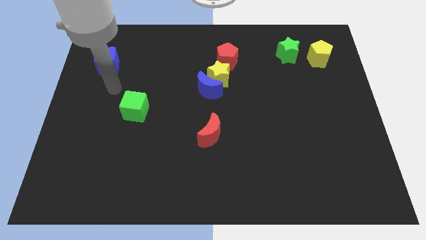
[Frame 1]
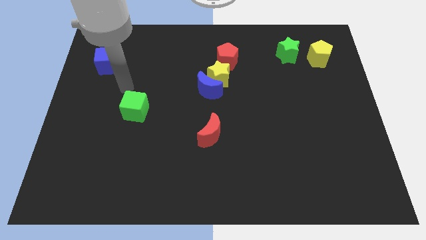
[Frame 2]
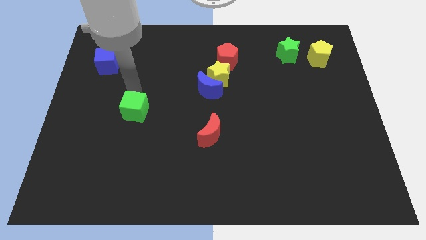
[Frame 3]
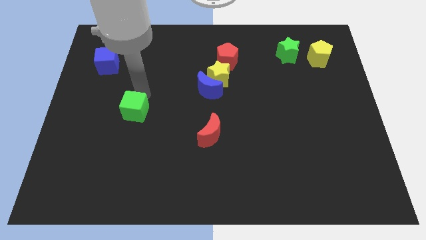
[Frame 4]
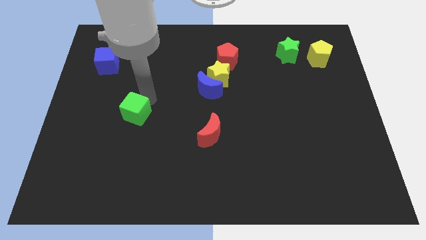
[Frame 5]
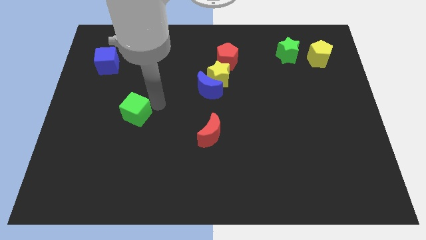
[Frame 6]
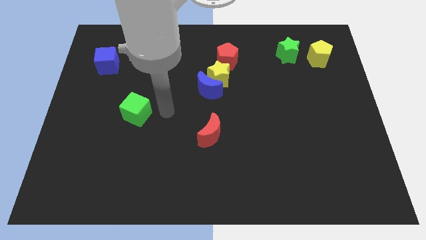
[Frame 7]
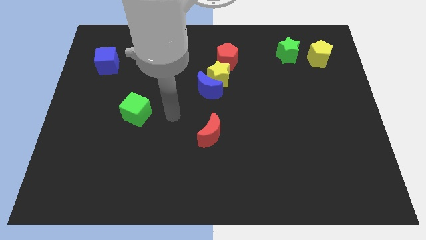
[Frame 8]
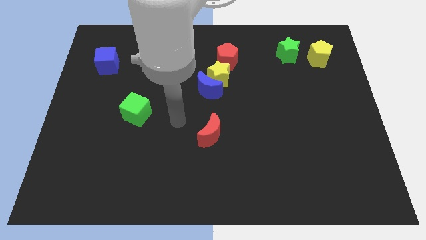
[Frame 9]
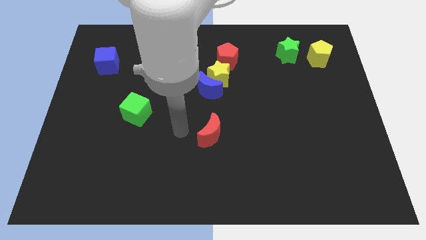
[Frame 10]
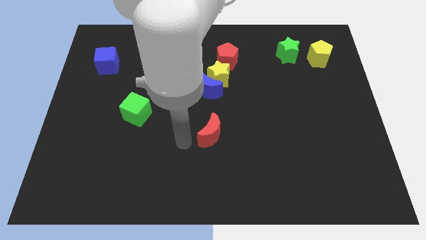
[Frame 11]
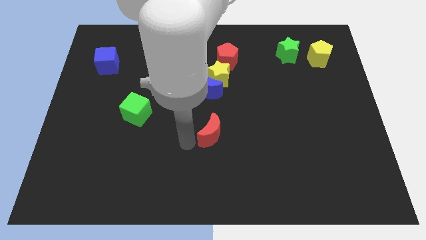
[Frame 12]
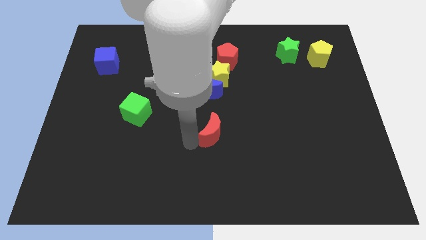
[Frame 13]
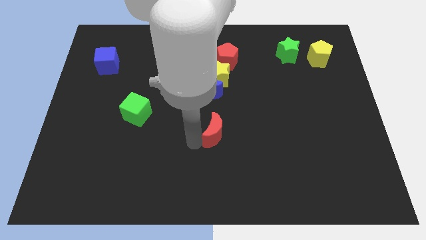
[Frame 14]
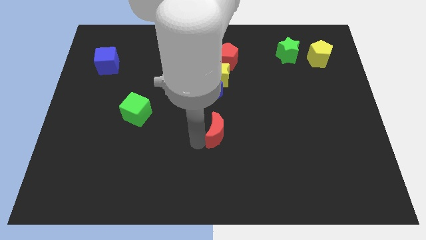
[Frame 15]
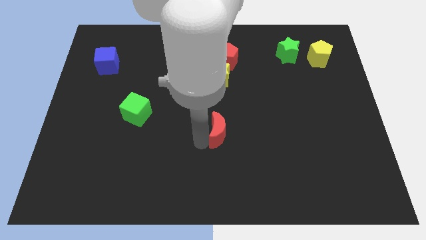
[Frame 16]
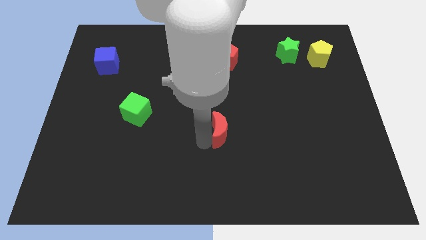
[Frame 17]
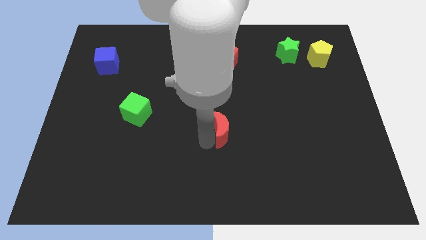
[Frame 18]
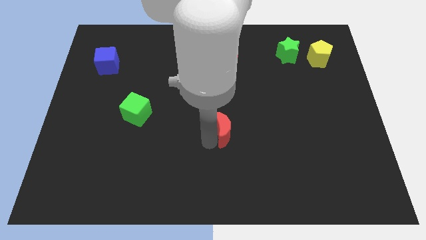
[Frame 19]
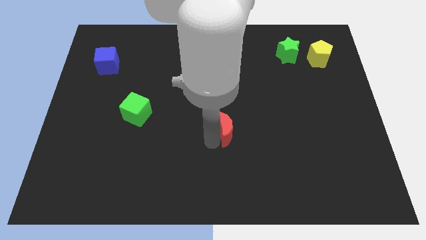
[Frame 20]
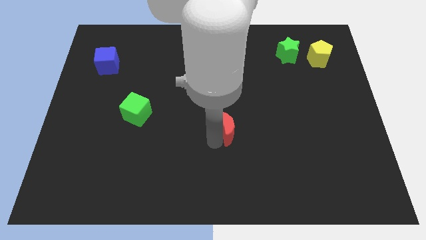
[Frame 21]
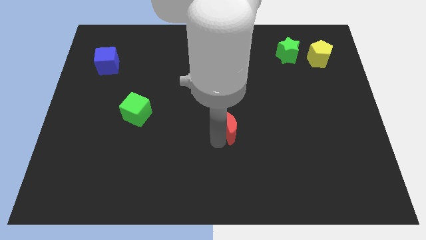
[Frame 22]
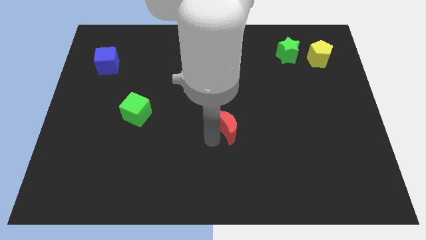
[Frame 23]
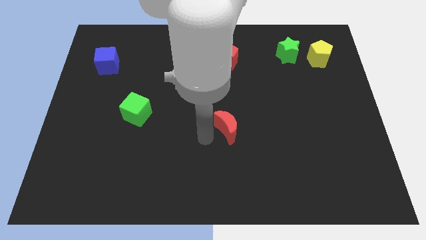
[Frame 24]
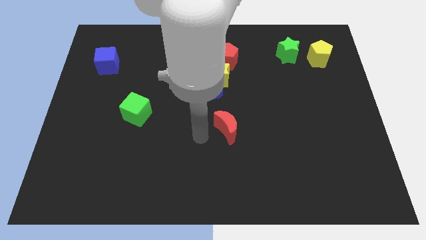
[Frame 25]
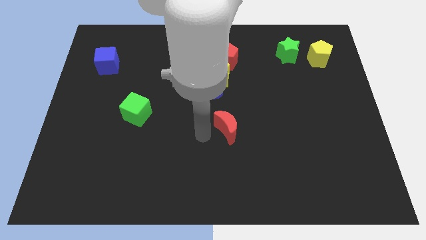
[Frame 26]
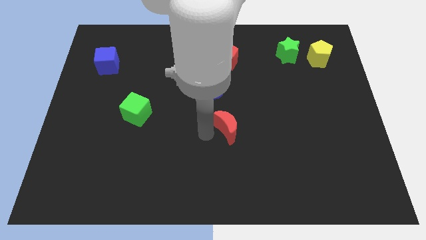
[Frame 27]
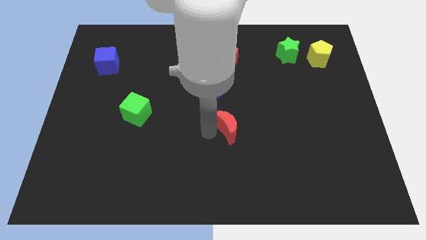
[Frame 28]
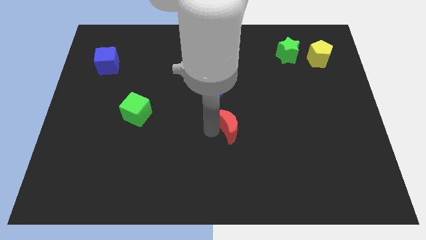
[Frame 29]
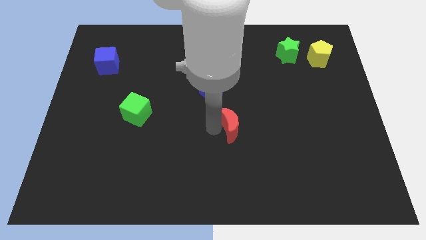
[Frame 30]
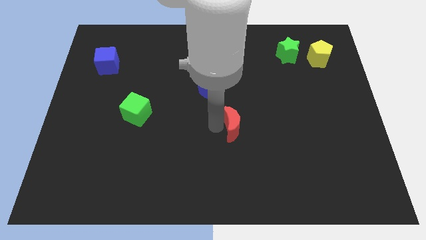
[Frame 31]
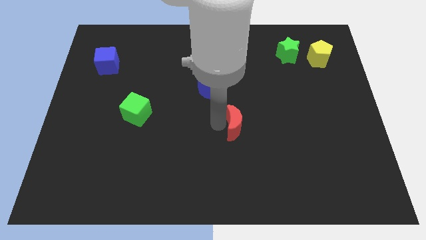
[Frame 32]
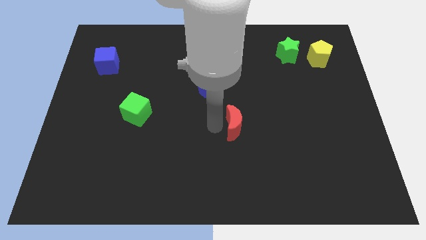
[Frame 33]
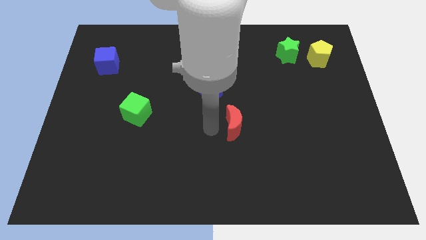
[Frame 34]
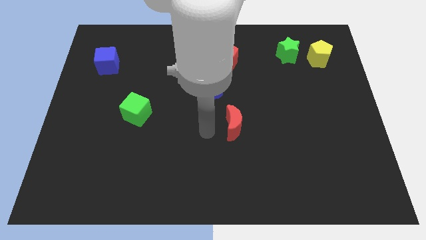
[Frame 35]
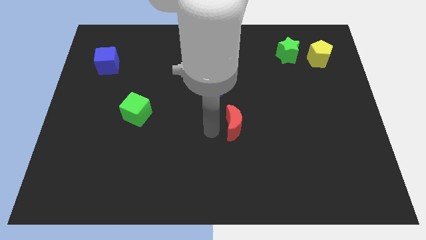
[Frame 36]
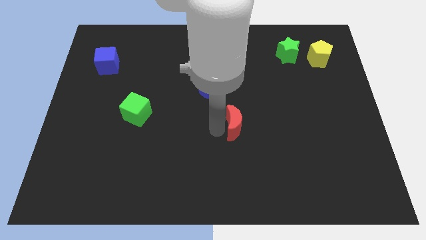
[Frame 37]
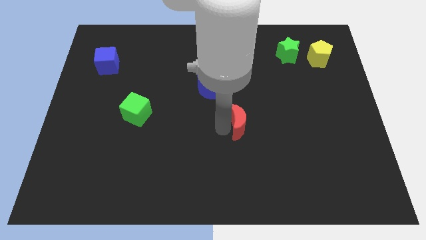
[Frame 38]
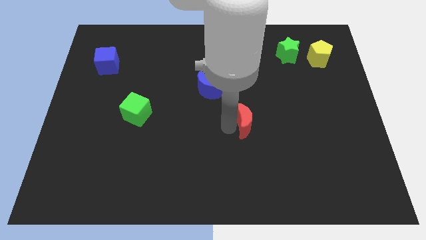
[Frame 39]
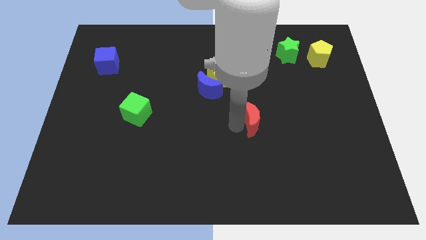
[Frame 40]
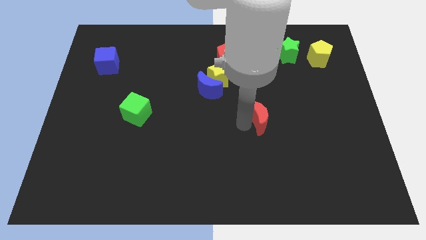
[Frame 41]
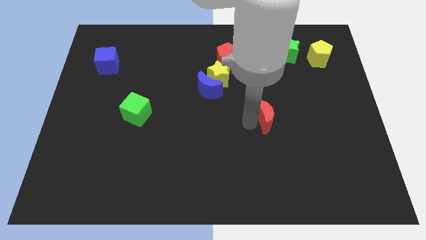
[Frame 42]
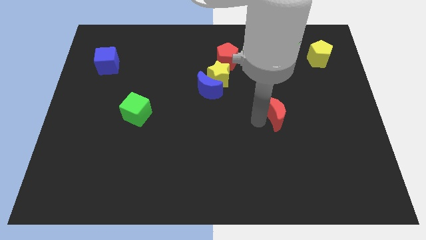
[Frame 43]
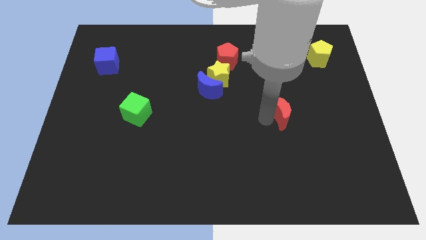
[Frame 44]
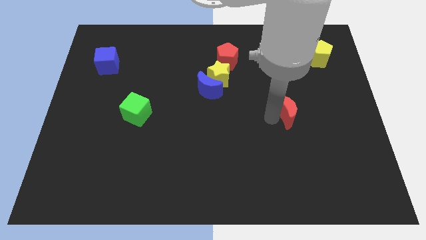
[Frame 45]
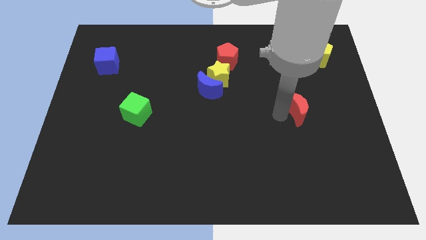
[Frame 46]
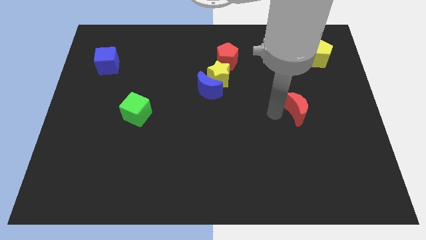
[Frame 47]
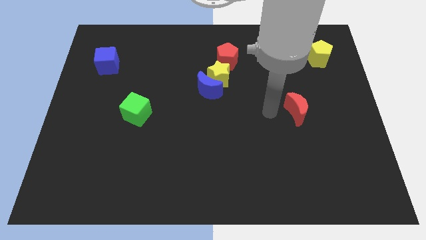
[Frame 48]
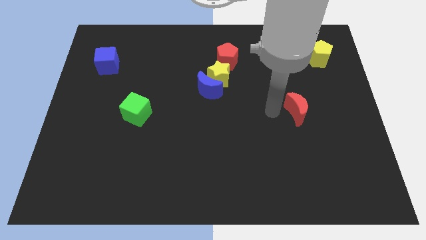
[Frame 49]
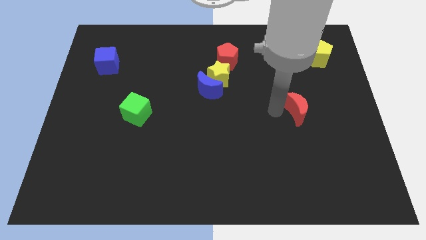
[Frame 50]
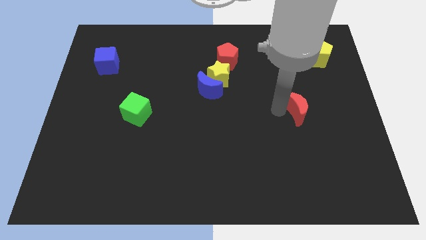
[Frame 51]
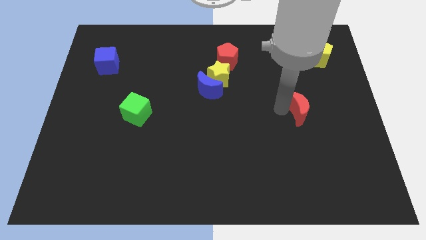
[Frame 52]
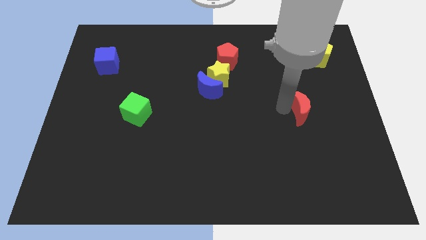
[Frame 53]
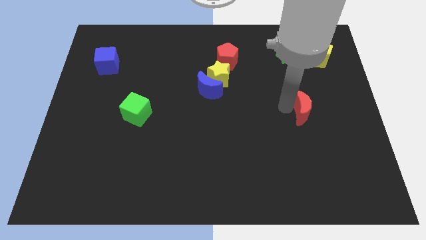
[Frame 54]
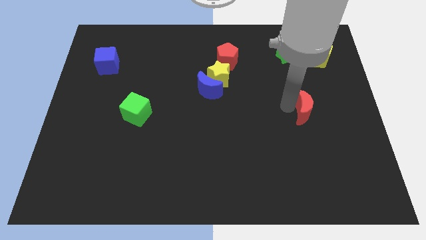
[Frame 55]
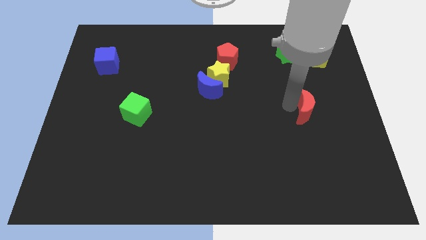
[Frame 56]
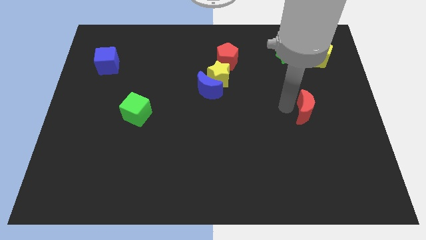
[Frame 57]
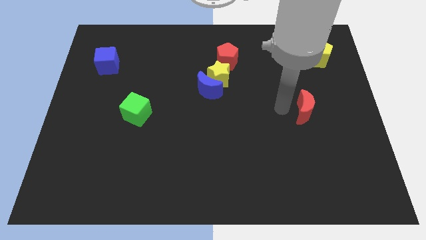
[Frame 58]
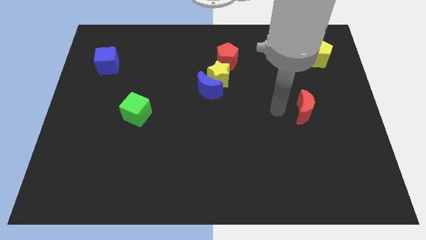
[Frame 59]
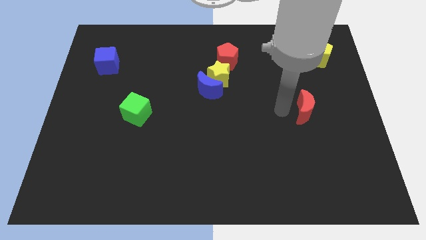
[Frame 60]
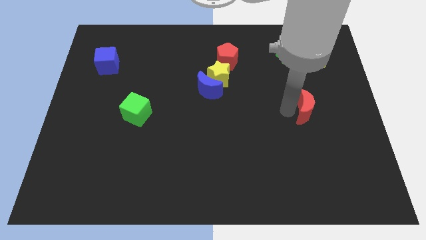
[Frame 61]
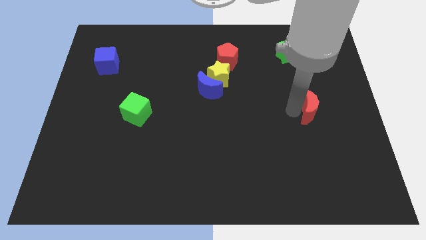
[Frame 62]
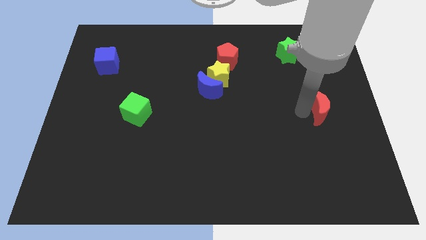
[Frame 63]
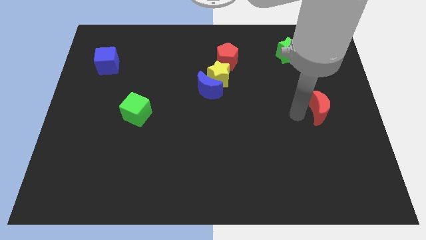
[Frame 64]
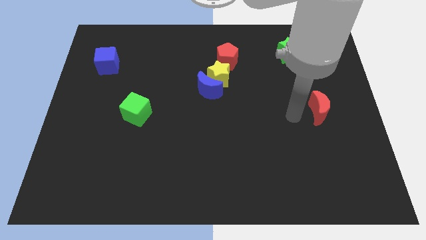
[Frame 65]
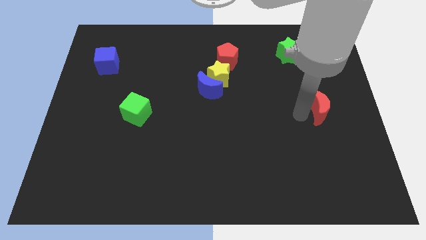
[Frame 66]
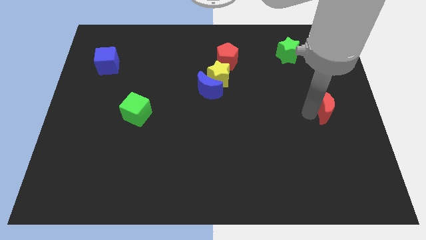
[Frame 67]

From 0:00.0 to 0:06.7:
move the red moon to the right side of the board
